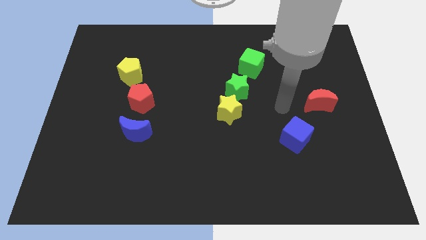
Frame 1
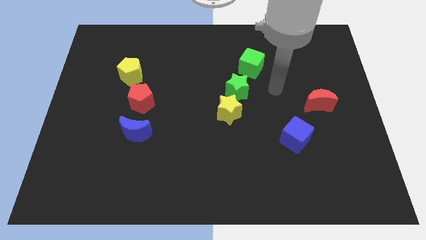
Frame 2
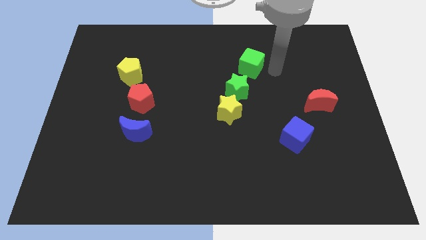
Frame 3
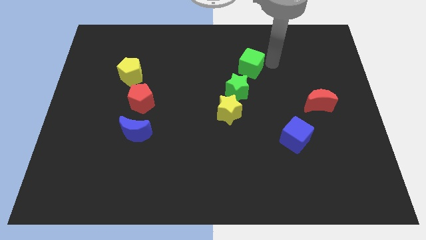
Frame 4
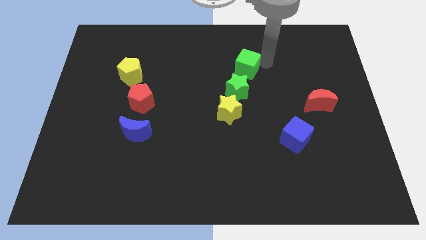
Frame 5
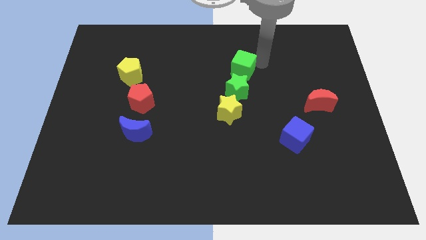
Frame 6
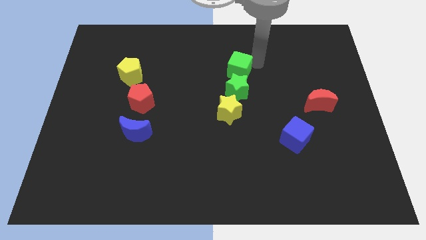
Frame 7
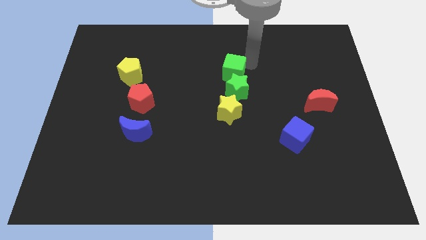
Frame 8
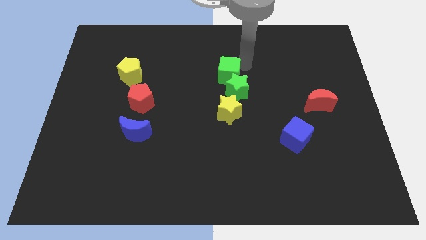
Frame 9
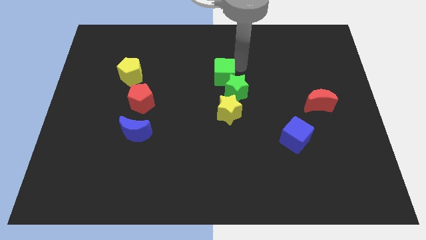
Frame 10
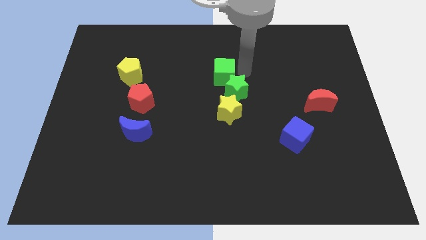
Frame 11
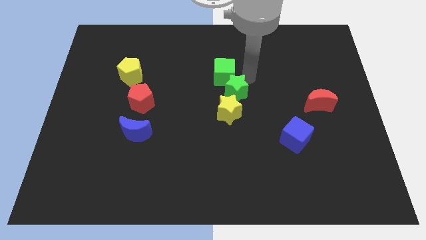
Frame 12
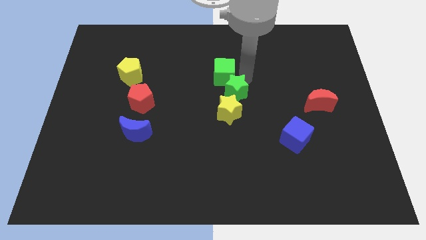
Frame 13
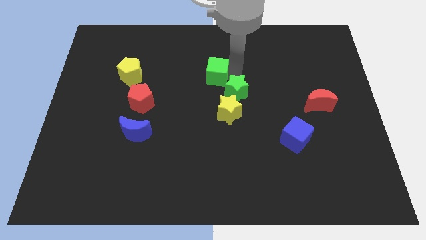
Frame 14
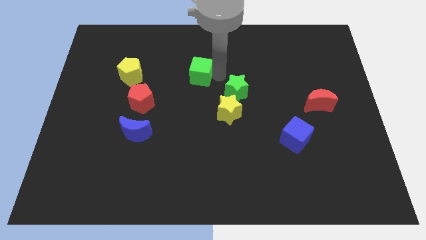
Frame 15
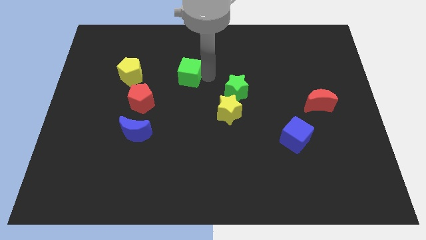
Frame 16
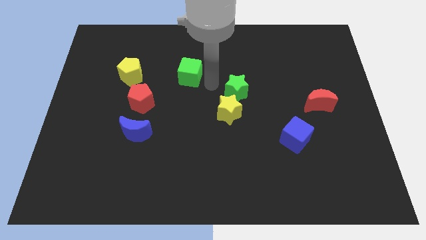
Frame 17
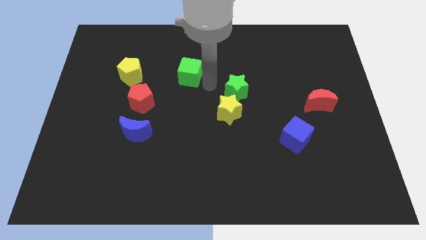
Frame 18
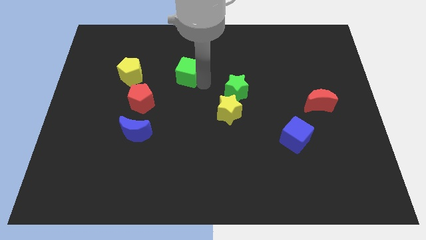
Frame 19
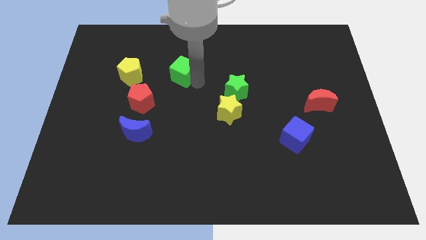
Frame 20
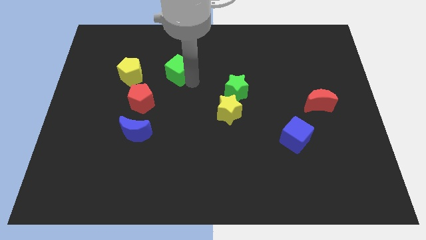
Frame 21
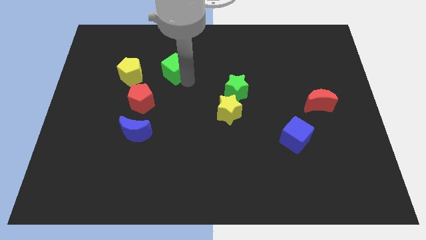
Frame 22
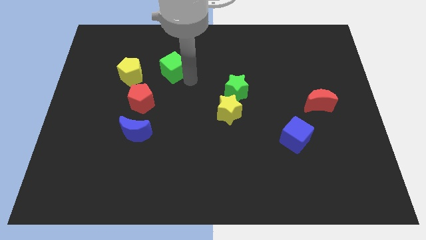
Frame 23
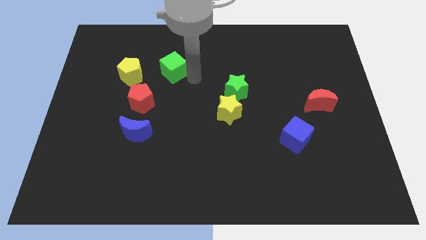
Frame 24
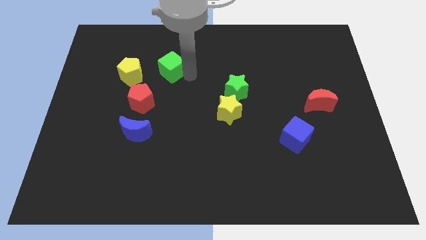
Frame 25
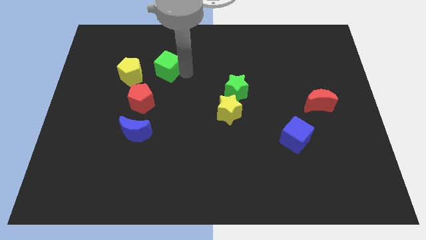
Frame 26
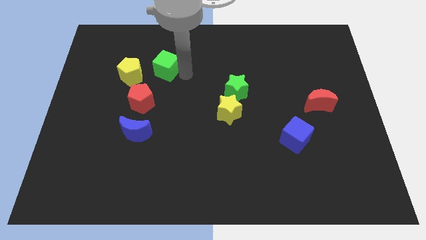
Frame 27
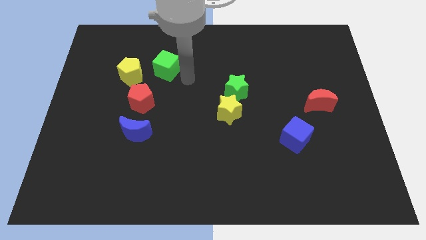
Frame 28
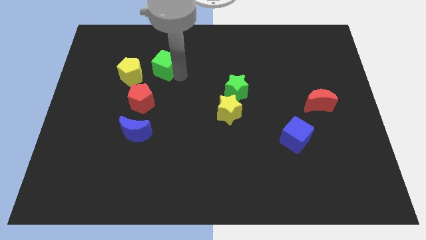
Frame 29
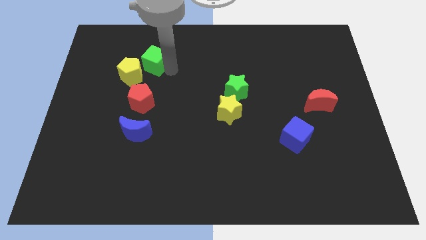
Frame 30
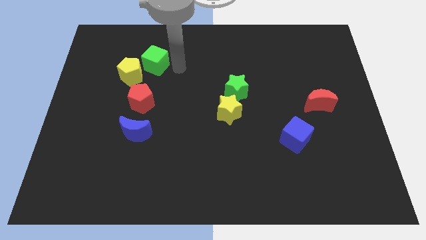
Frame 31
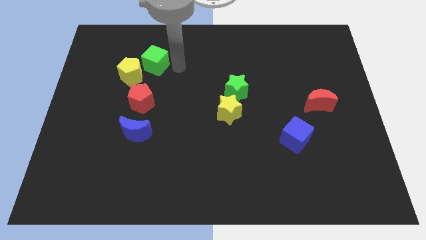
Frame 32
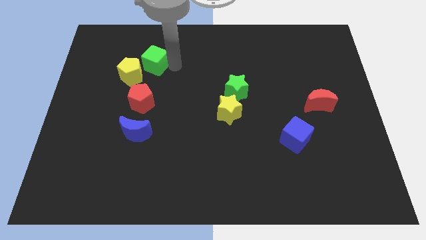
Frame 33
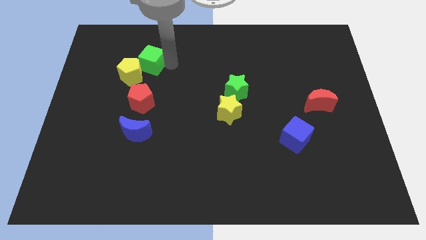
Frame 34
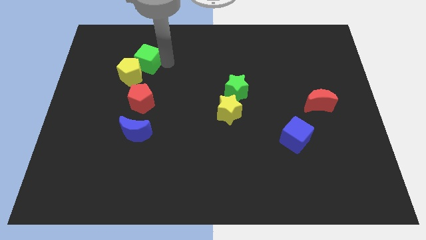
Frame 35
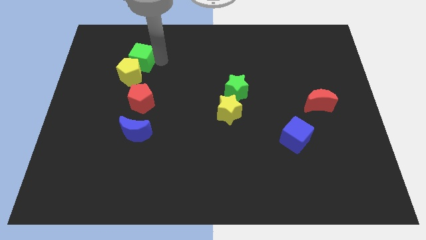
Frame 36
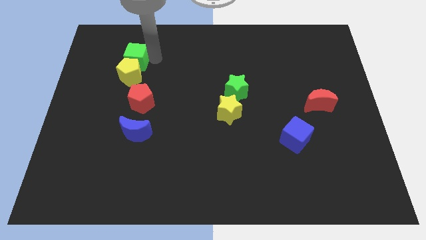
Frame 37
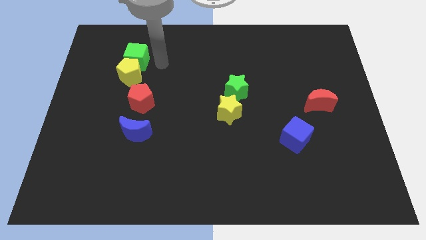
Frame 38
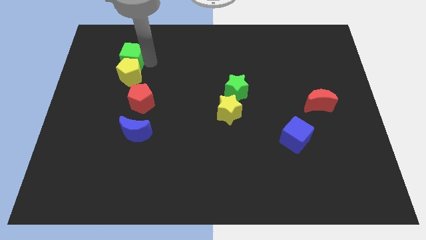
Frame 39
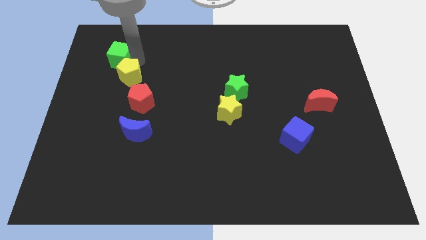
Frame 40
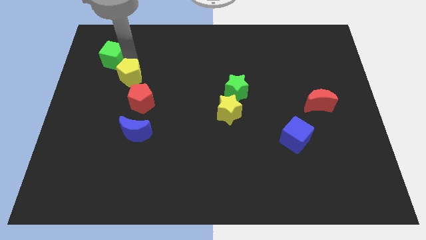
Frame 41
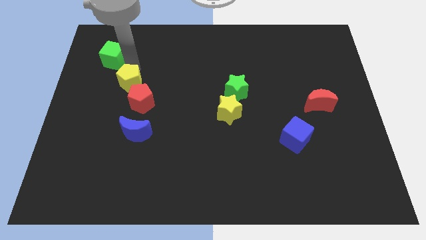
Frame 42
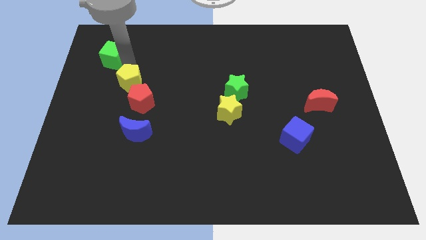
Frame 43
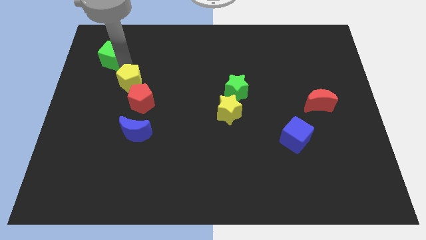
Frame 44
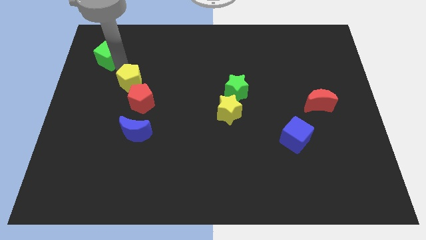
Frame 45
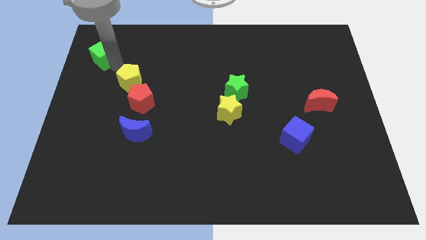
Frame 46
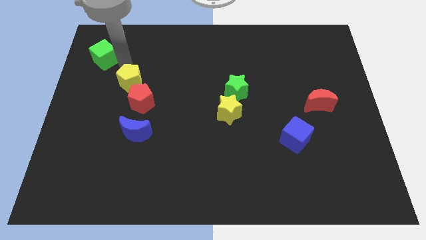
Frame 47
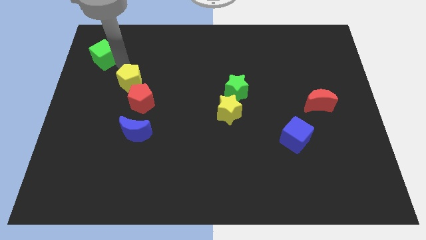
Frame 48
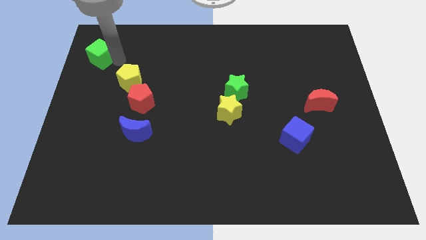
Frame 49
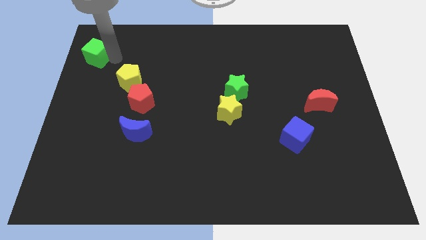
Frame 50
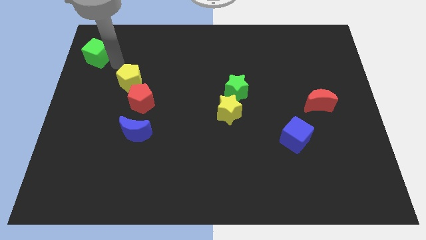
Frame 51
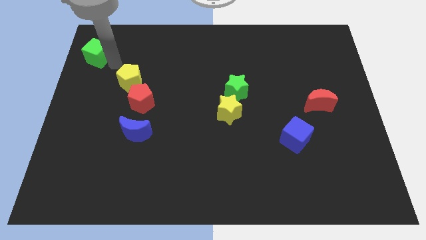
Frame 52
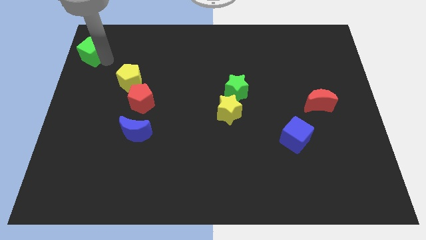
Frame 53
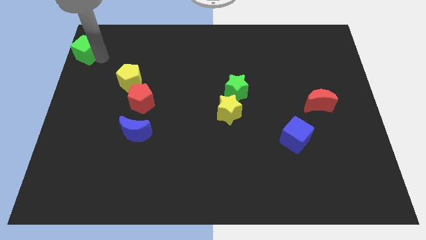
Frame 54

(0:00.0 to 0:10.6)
push the green cube to the top left of the board

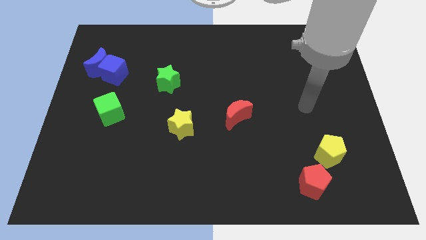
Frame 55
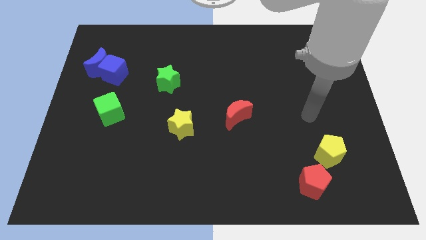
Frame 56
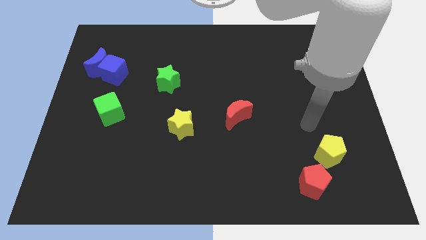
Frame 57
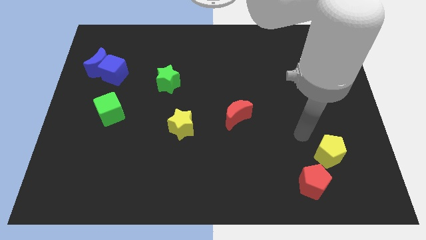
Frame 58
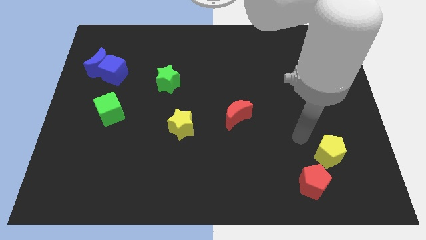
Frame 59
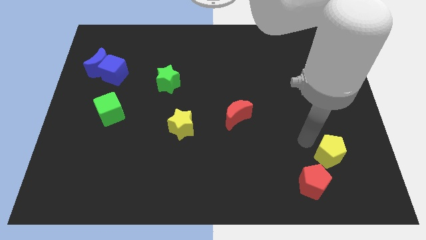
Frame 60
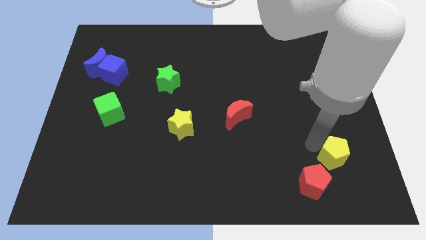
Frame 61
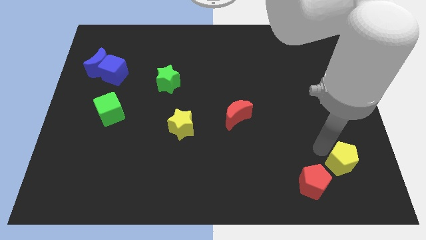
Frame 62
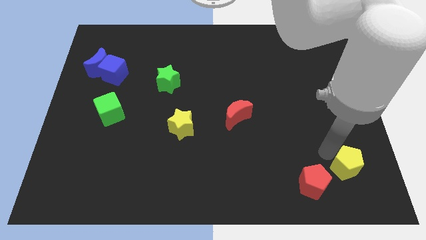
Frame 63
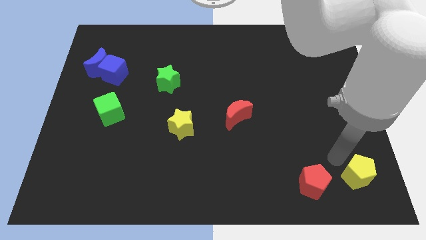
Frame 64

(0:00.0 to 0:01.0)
move the yellow pentagon to the bottom right
